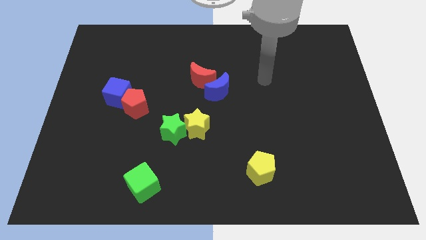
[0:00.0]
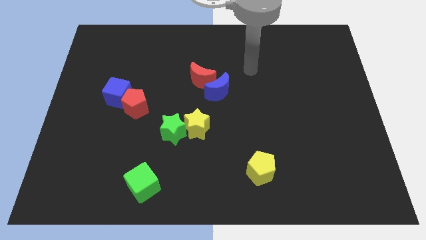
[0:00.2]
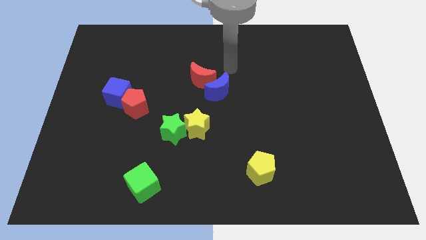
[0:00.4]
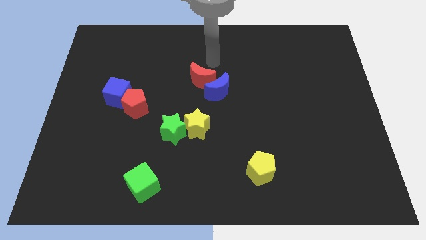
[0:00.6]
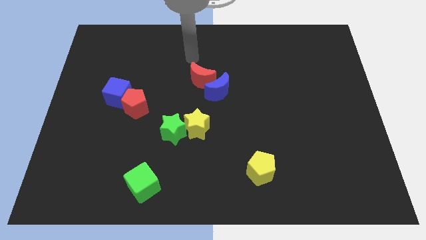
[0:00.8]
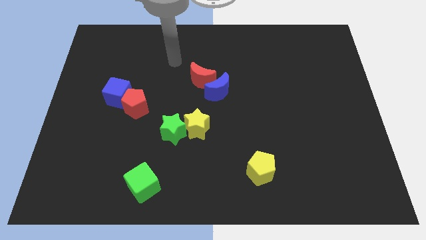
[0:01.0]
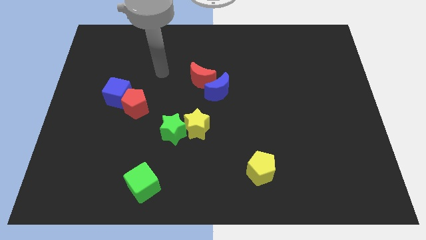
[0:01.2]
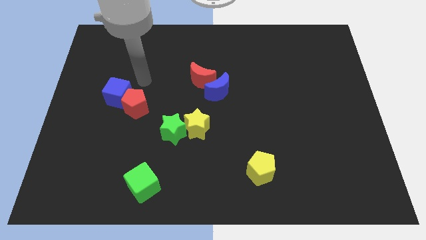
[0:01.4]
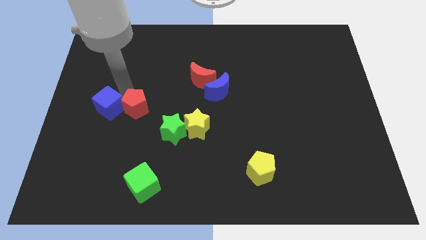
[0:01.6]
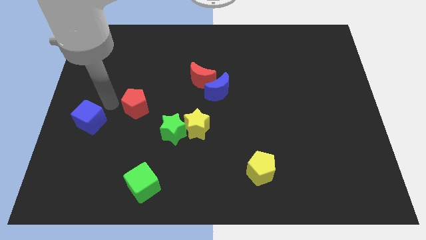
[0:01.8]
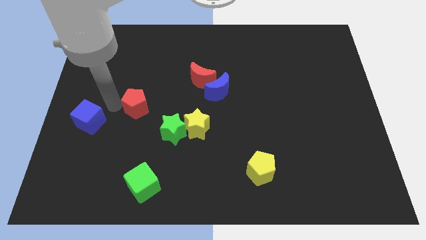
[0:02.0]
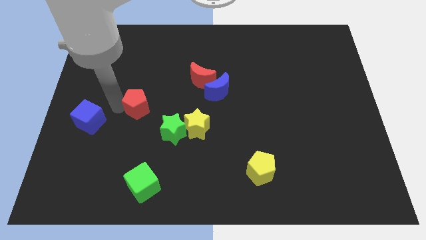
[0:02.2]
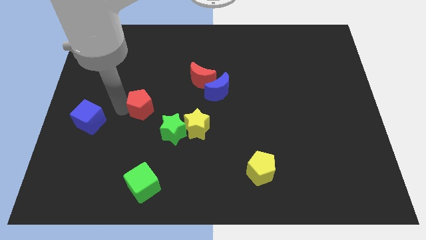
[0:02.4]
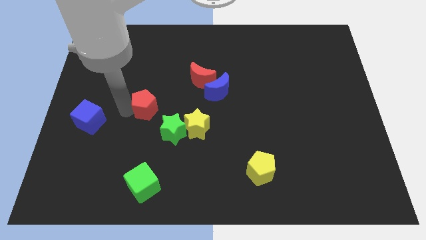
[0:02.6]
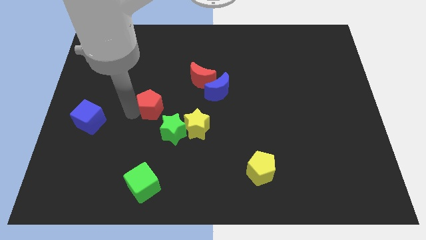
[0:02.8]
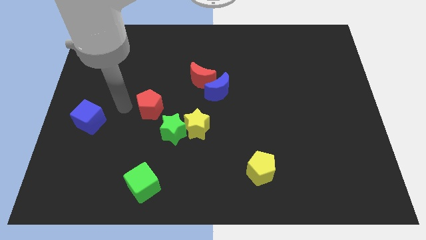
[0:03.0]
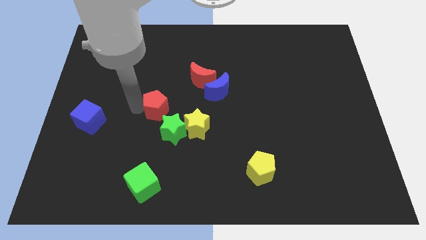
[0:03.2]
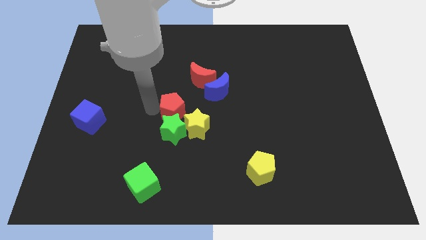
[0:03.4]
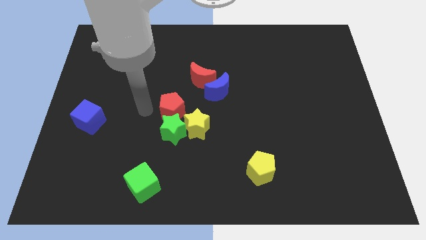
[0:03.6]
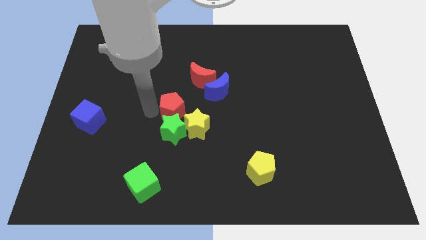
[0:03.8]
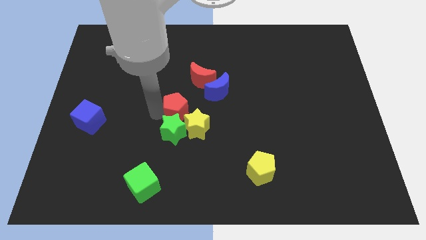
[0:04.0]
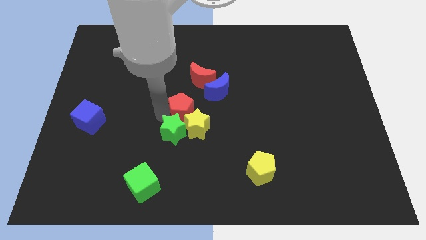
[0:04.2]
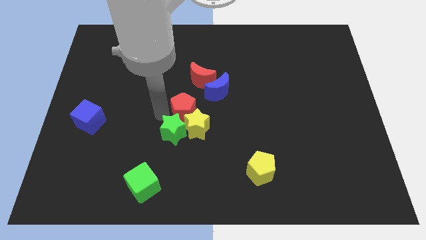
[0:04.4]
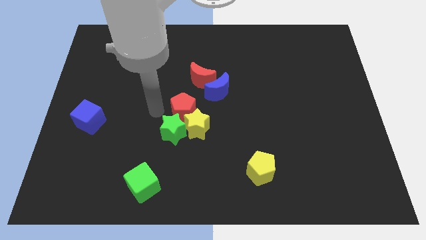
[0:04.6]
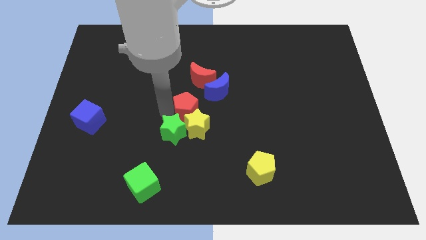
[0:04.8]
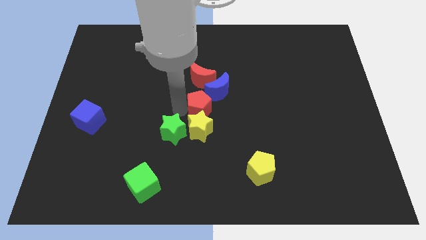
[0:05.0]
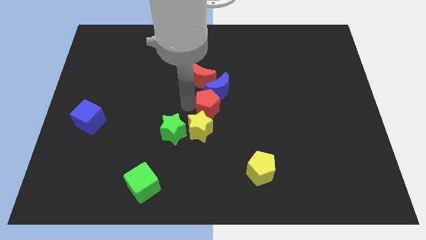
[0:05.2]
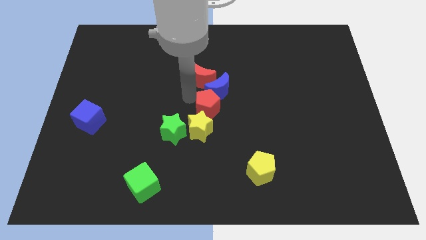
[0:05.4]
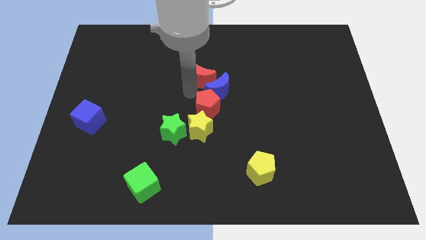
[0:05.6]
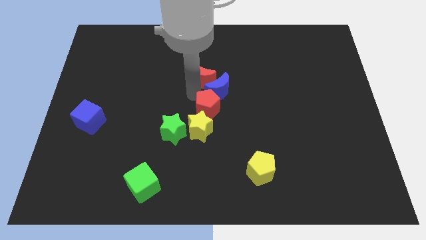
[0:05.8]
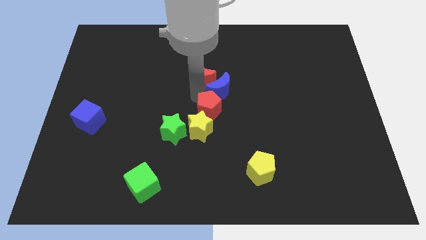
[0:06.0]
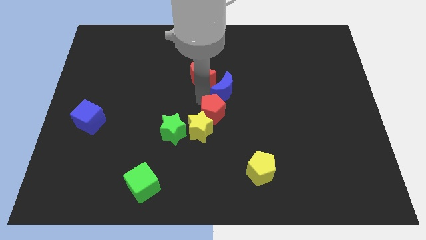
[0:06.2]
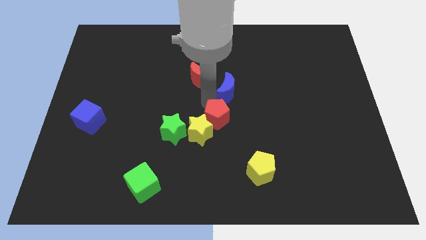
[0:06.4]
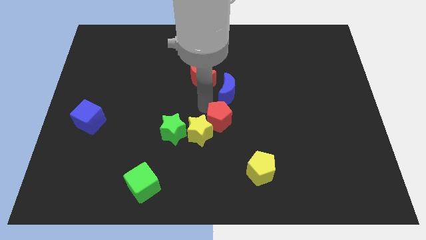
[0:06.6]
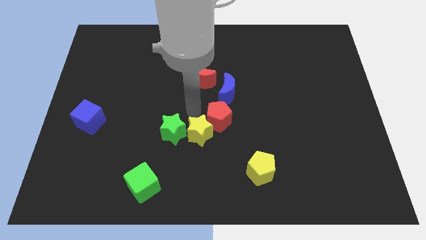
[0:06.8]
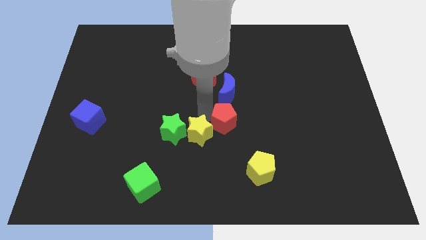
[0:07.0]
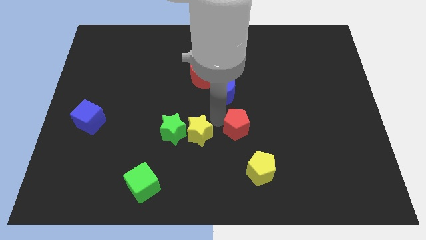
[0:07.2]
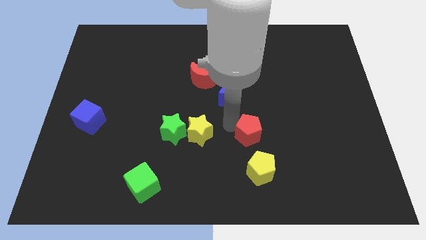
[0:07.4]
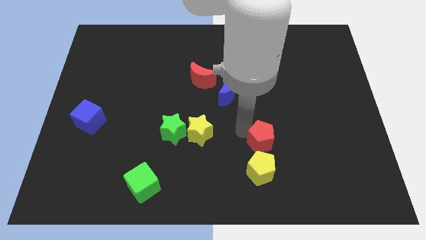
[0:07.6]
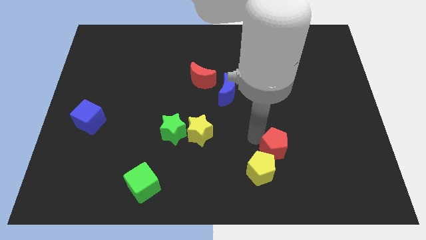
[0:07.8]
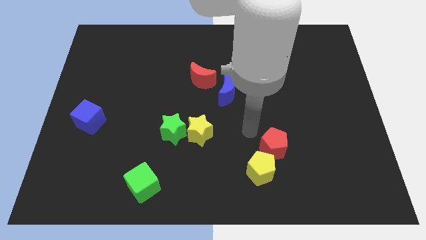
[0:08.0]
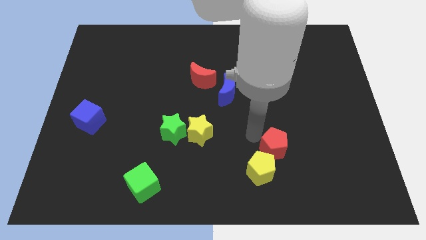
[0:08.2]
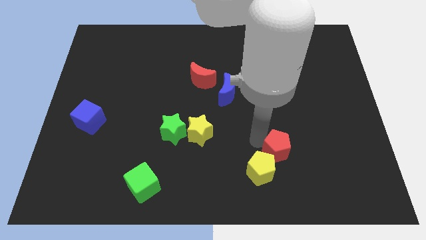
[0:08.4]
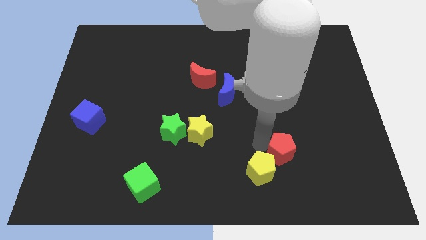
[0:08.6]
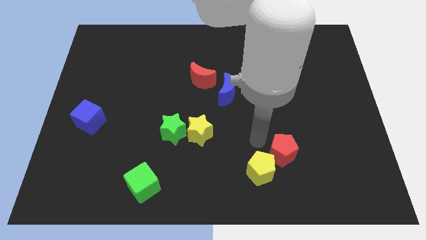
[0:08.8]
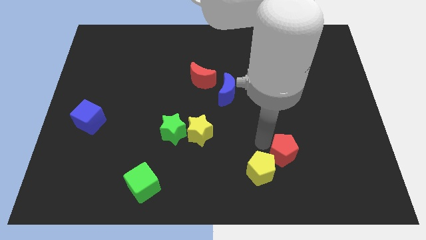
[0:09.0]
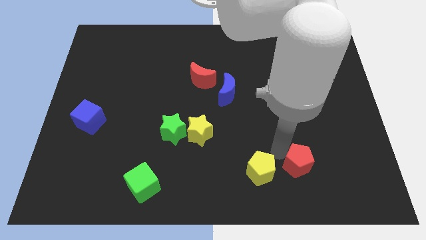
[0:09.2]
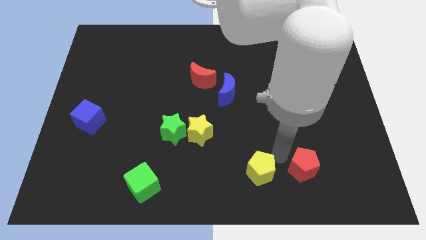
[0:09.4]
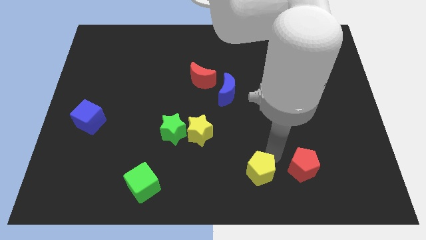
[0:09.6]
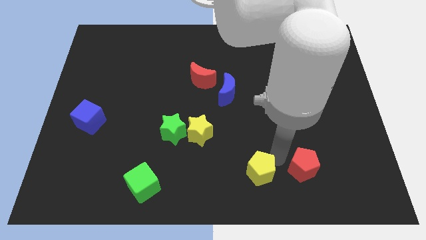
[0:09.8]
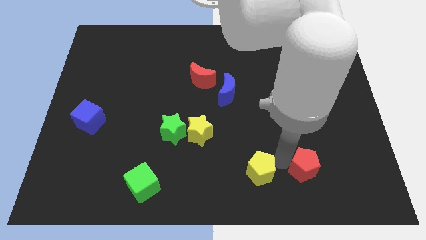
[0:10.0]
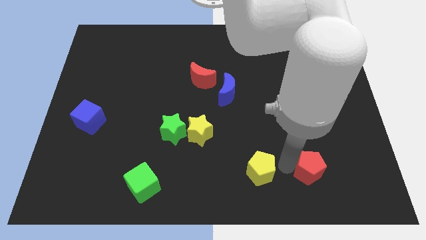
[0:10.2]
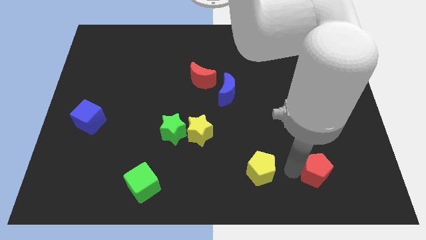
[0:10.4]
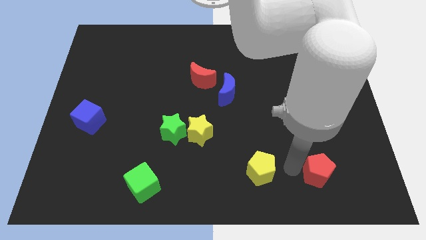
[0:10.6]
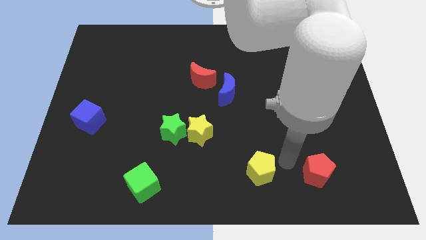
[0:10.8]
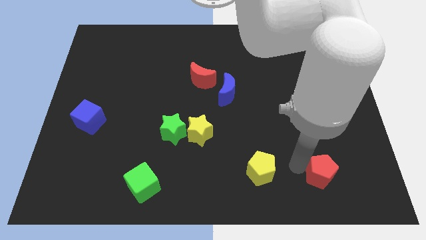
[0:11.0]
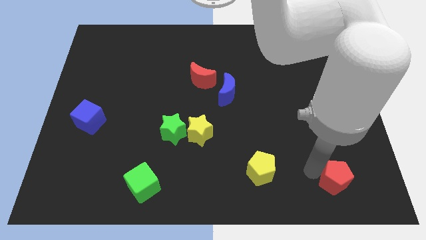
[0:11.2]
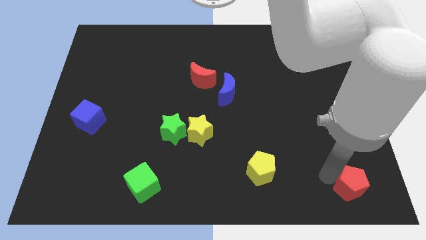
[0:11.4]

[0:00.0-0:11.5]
move the red pentagon to the bottom right corner

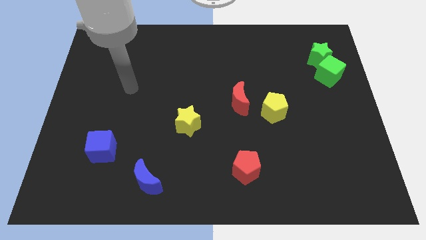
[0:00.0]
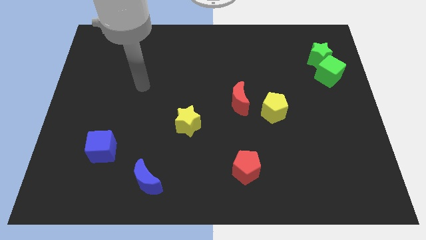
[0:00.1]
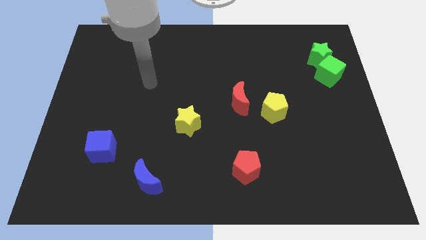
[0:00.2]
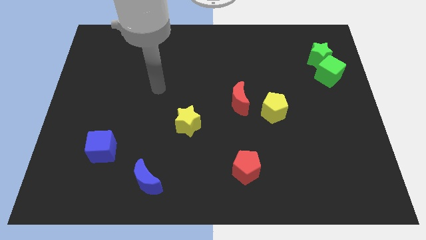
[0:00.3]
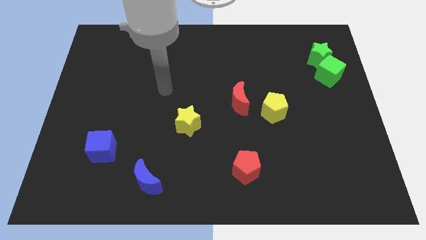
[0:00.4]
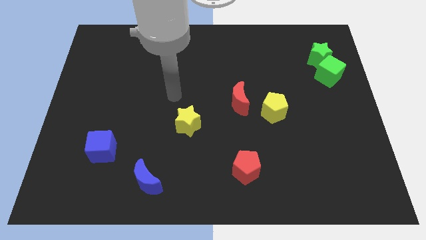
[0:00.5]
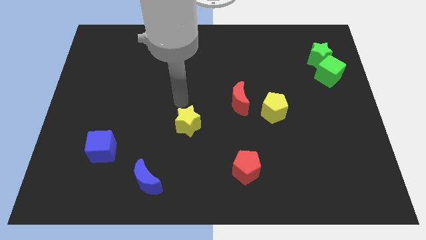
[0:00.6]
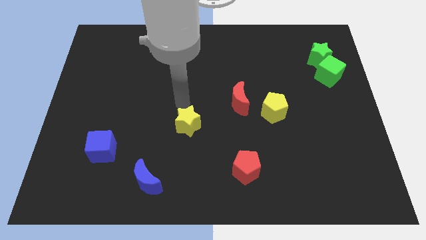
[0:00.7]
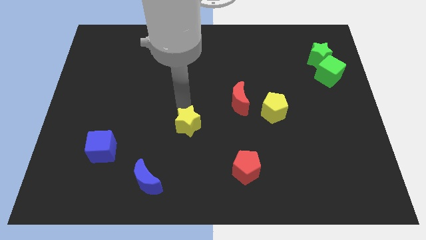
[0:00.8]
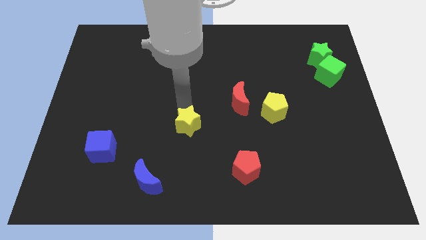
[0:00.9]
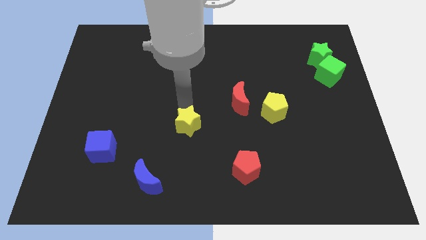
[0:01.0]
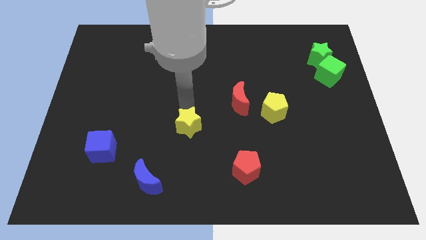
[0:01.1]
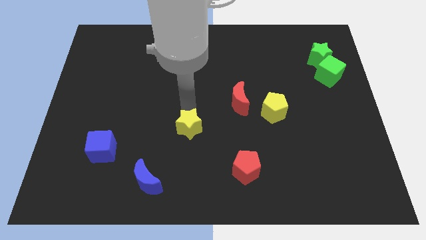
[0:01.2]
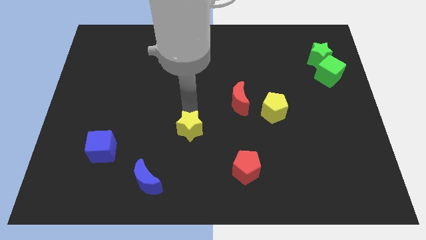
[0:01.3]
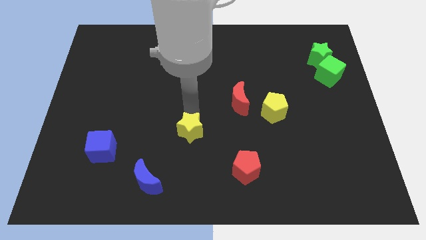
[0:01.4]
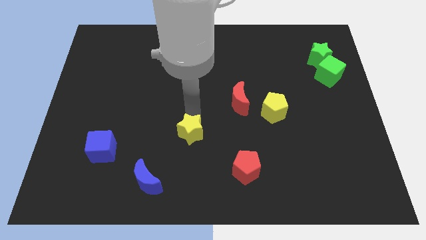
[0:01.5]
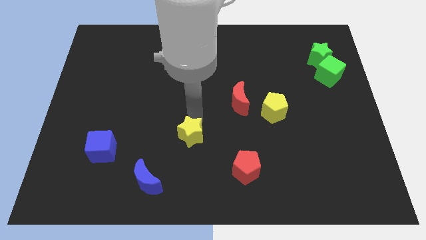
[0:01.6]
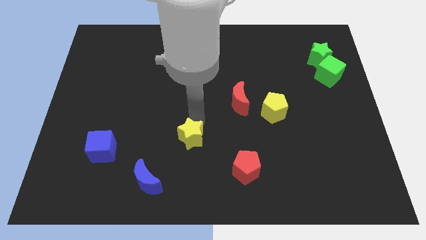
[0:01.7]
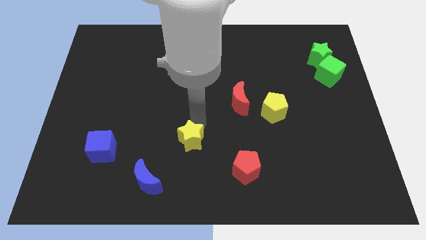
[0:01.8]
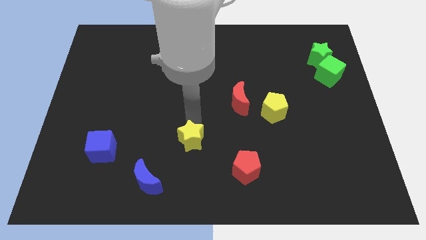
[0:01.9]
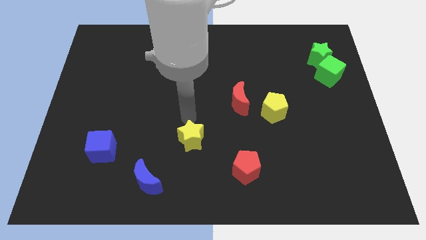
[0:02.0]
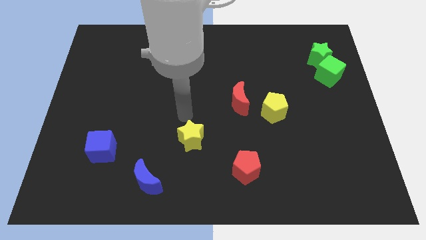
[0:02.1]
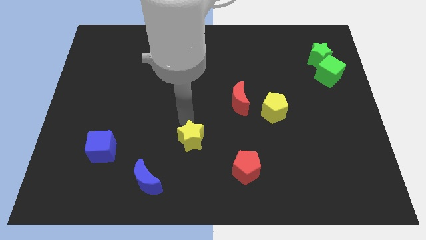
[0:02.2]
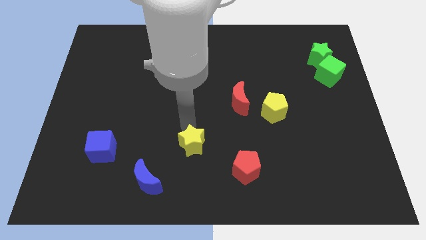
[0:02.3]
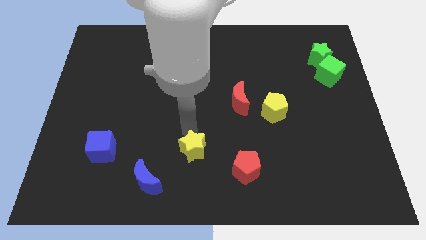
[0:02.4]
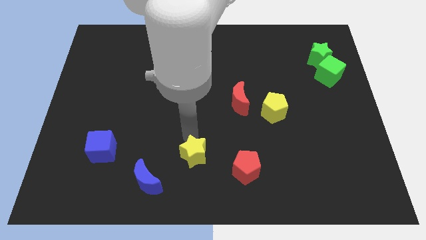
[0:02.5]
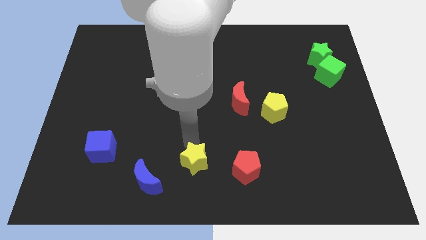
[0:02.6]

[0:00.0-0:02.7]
put the yellow star to the bottom
